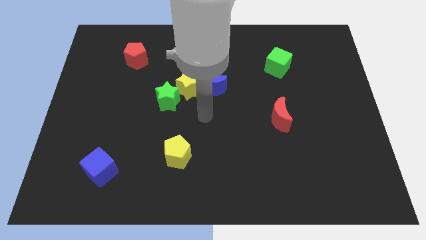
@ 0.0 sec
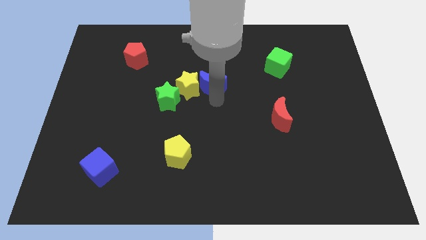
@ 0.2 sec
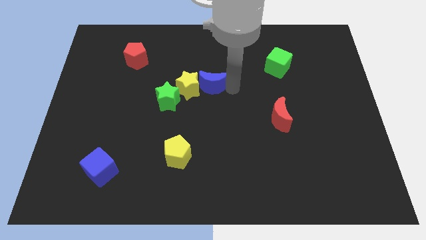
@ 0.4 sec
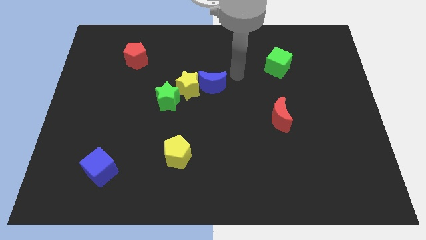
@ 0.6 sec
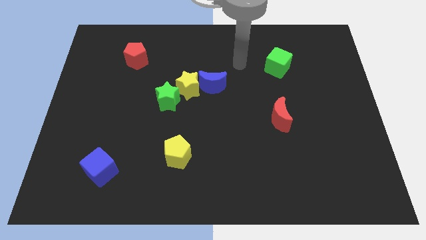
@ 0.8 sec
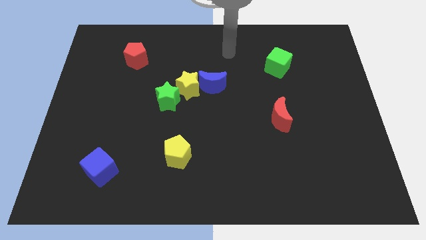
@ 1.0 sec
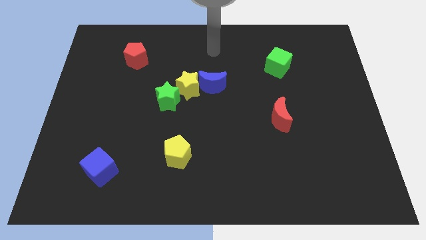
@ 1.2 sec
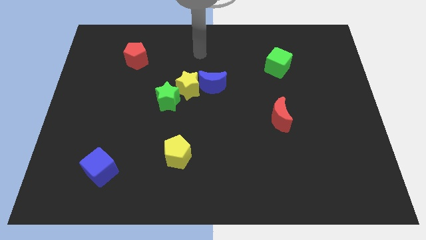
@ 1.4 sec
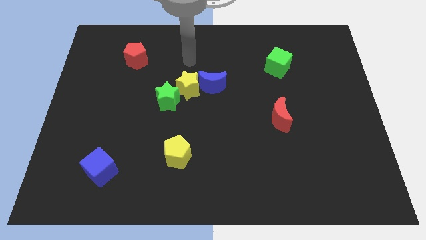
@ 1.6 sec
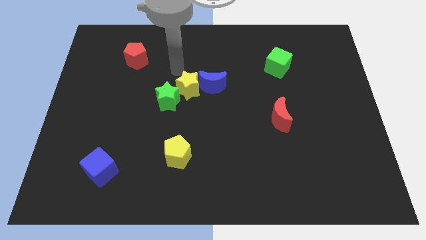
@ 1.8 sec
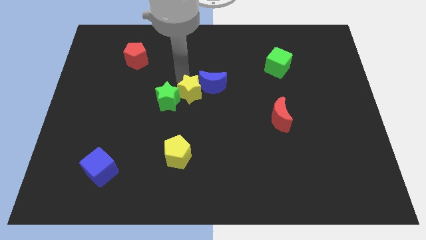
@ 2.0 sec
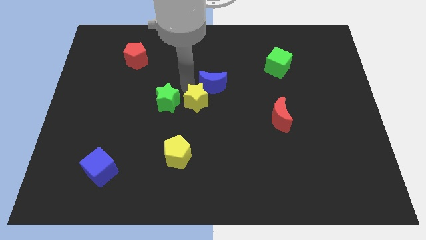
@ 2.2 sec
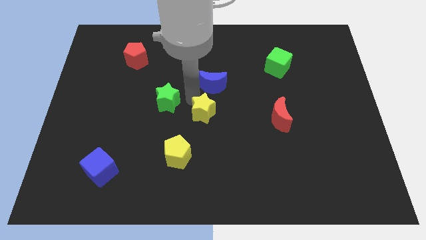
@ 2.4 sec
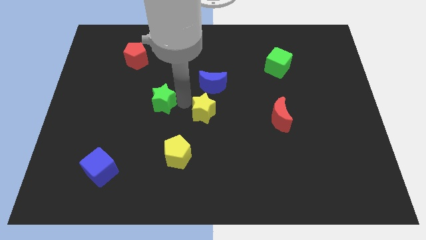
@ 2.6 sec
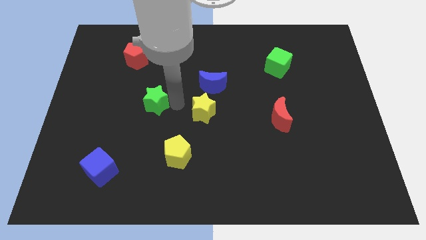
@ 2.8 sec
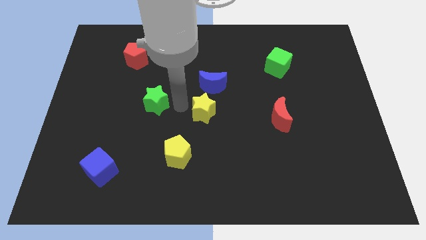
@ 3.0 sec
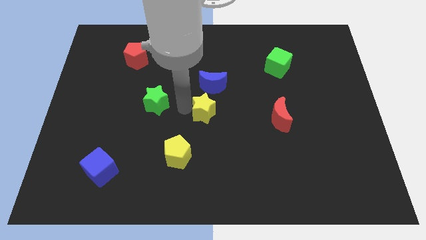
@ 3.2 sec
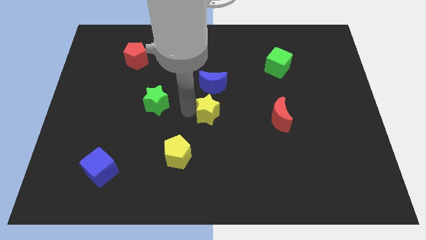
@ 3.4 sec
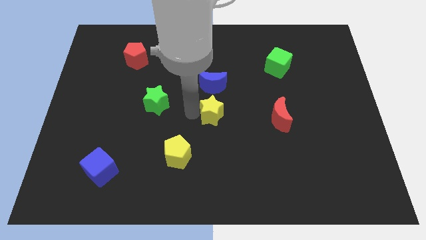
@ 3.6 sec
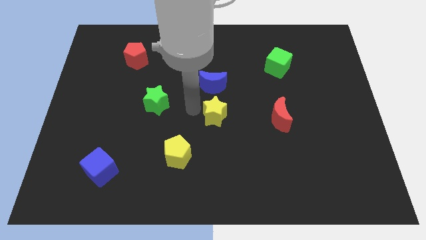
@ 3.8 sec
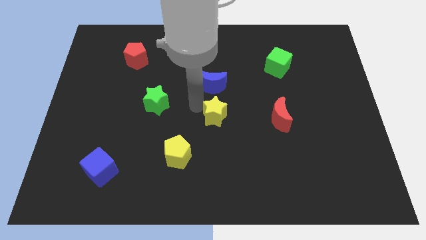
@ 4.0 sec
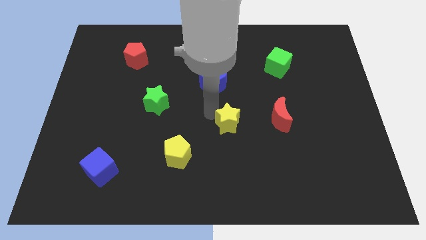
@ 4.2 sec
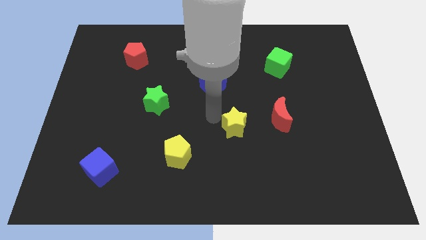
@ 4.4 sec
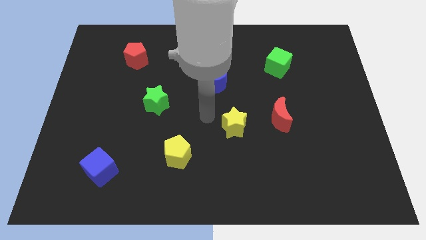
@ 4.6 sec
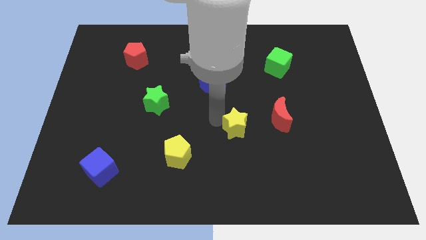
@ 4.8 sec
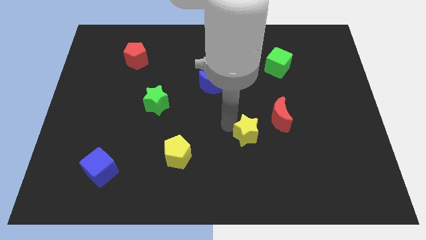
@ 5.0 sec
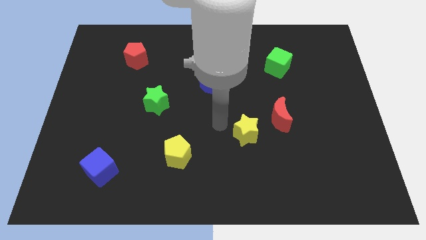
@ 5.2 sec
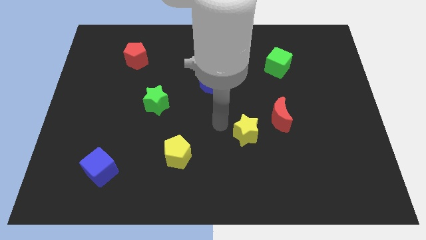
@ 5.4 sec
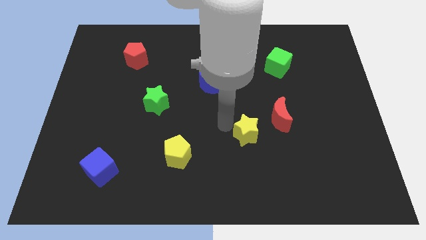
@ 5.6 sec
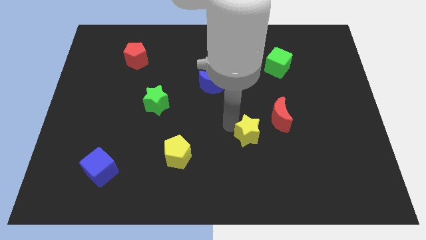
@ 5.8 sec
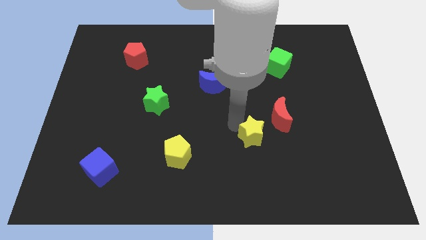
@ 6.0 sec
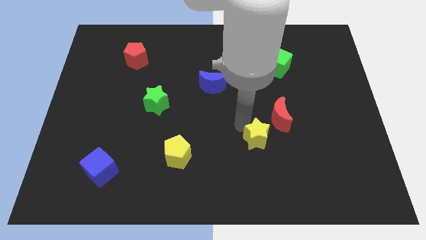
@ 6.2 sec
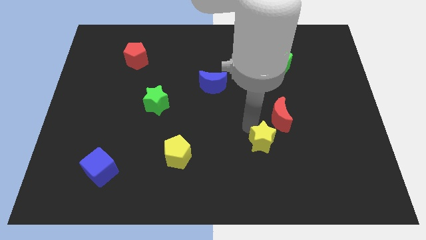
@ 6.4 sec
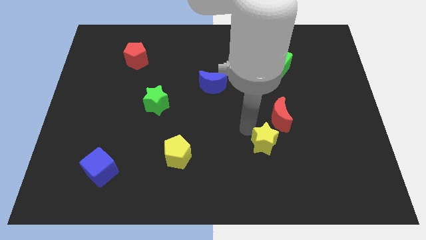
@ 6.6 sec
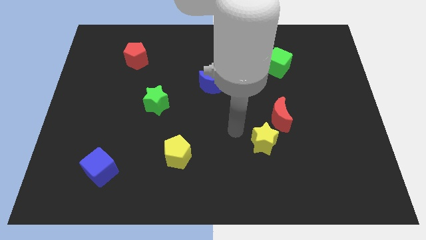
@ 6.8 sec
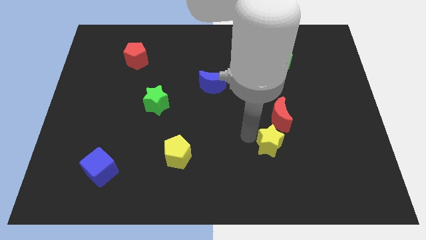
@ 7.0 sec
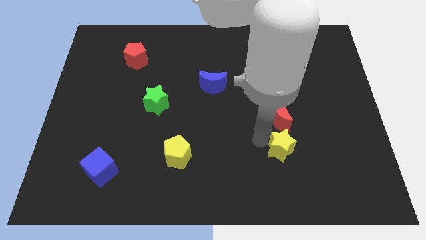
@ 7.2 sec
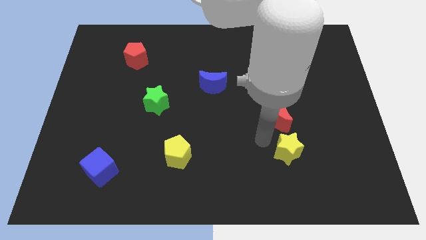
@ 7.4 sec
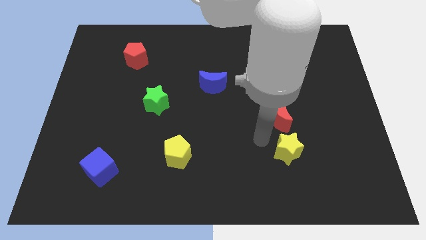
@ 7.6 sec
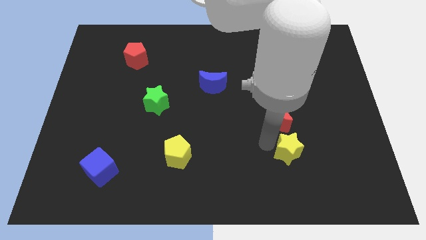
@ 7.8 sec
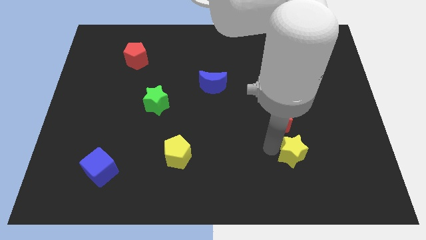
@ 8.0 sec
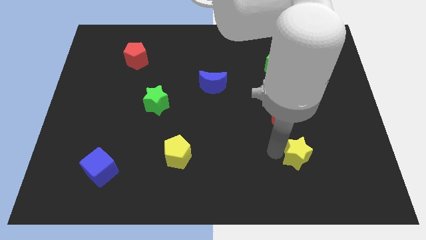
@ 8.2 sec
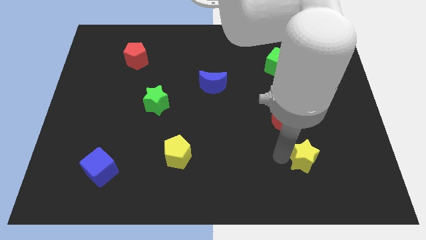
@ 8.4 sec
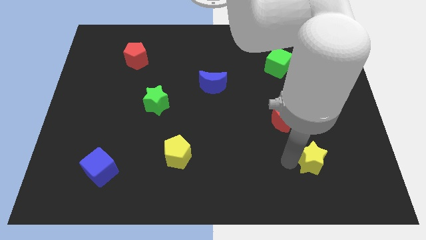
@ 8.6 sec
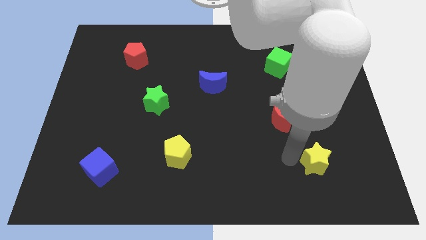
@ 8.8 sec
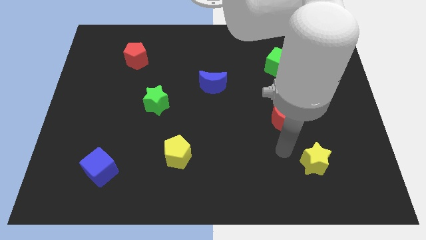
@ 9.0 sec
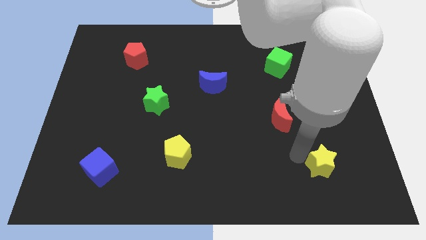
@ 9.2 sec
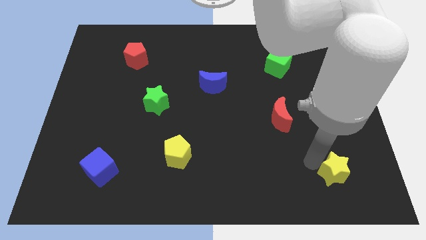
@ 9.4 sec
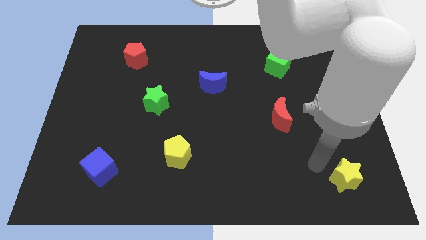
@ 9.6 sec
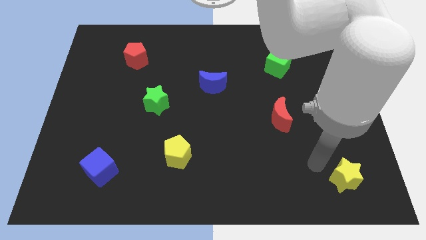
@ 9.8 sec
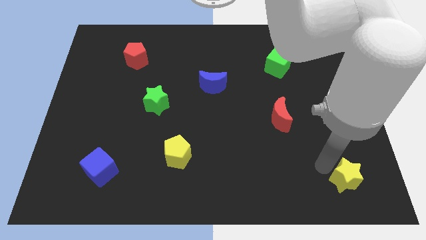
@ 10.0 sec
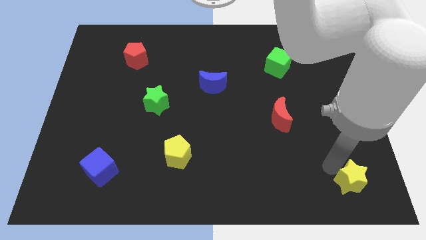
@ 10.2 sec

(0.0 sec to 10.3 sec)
move the yellow star to the bottom right

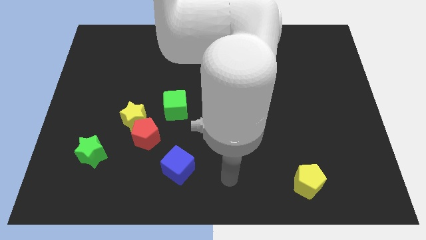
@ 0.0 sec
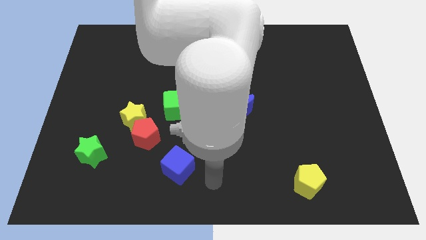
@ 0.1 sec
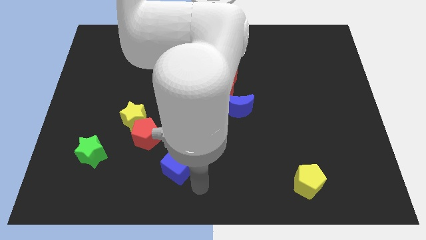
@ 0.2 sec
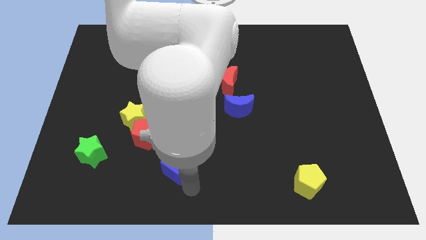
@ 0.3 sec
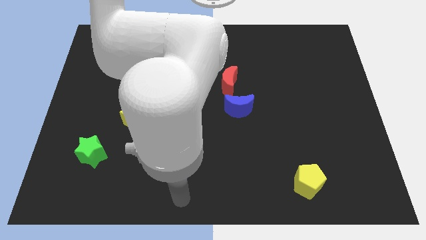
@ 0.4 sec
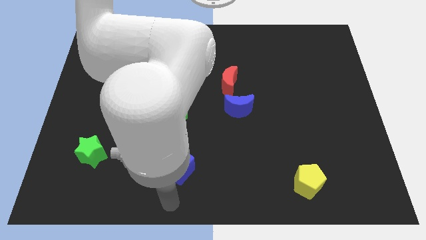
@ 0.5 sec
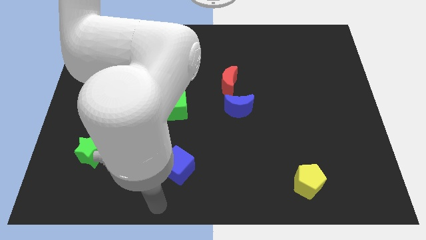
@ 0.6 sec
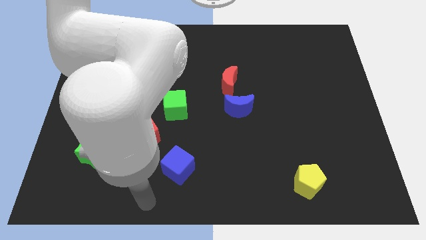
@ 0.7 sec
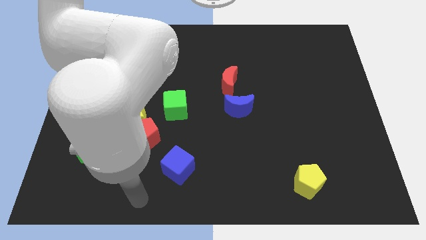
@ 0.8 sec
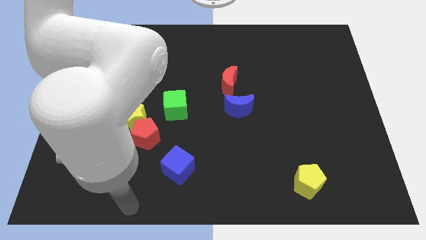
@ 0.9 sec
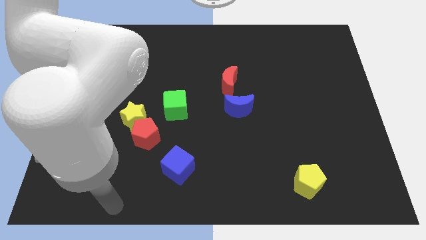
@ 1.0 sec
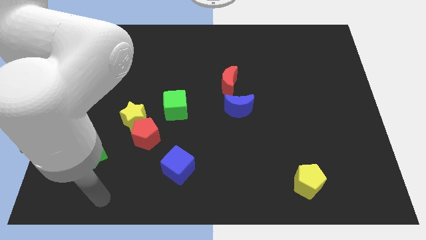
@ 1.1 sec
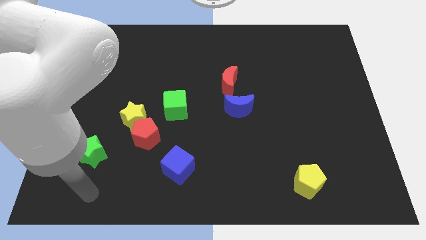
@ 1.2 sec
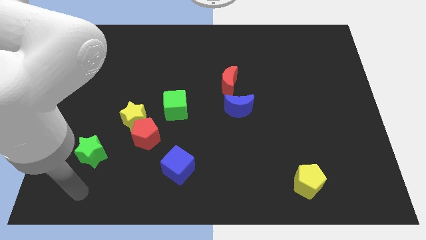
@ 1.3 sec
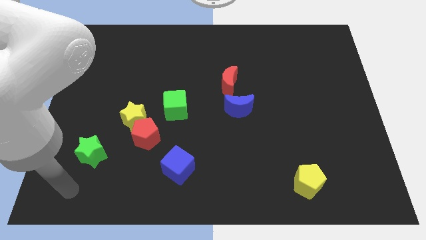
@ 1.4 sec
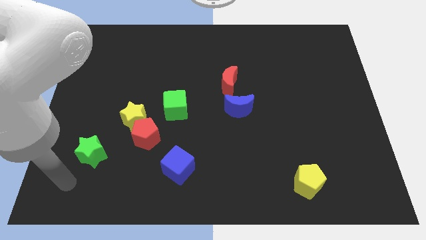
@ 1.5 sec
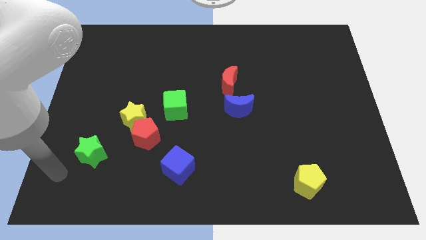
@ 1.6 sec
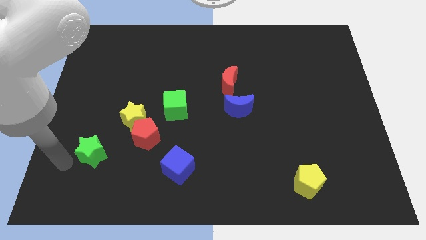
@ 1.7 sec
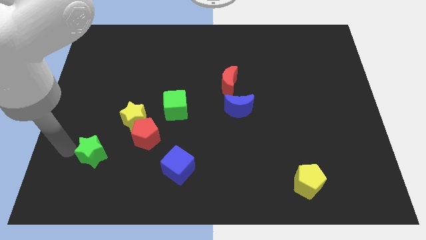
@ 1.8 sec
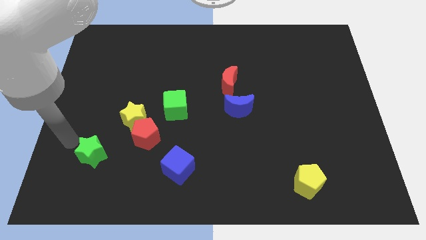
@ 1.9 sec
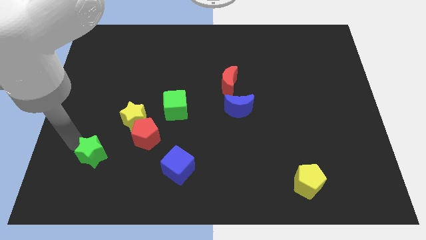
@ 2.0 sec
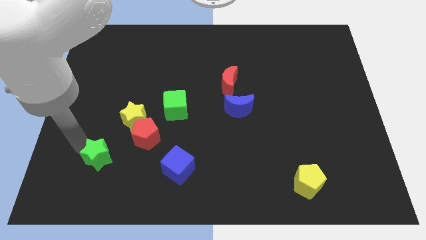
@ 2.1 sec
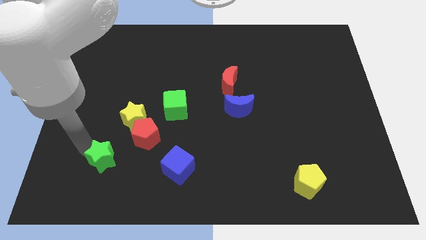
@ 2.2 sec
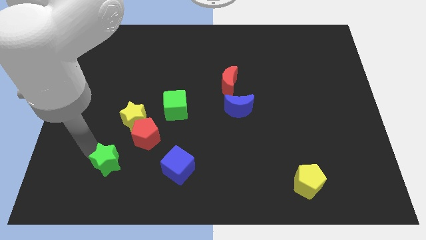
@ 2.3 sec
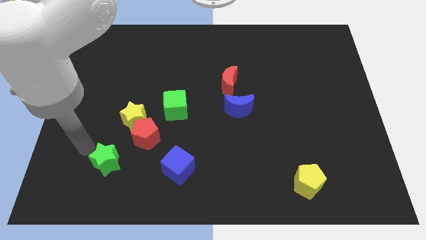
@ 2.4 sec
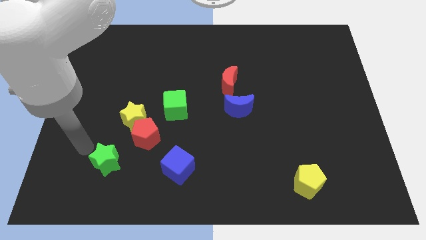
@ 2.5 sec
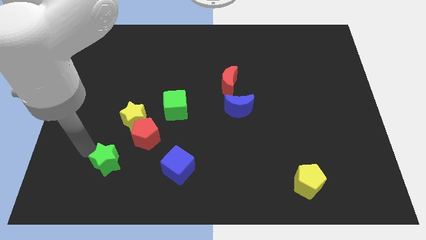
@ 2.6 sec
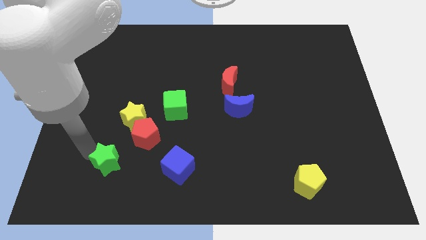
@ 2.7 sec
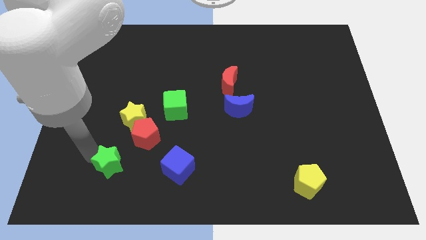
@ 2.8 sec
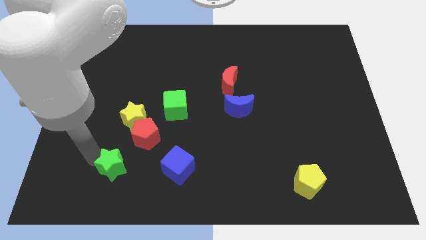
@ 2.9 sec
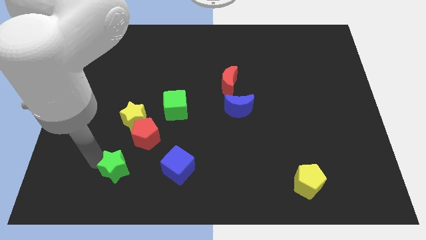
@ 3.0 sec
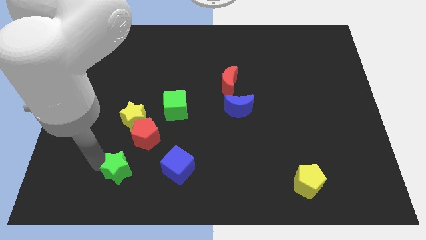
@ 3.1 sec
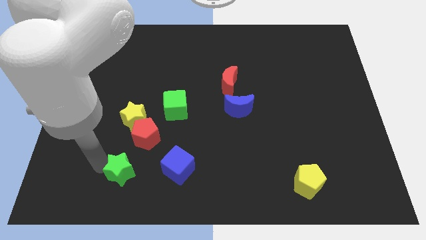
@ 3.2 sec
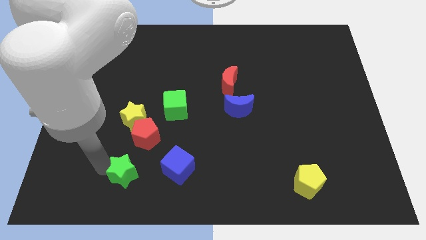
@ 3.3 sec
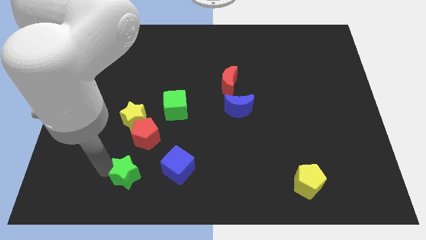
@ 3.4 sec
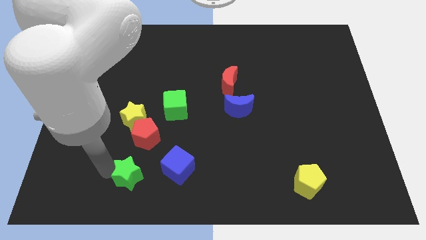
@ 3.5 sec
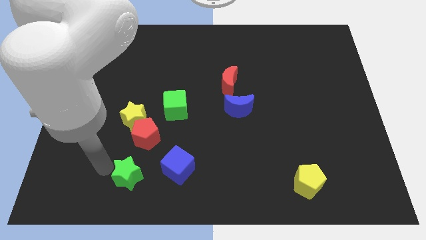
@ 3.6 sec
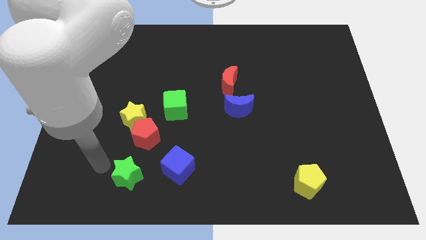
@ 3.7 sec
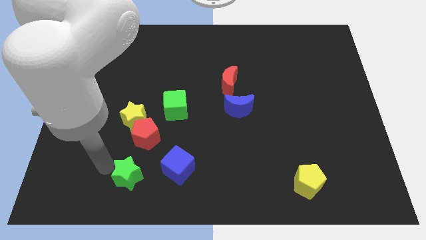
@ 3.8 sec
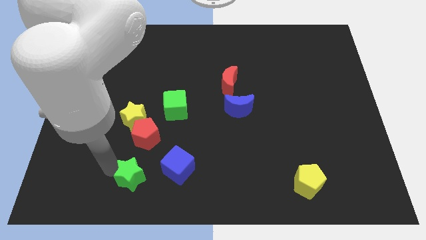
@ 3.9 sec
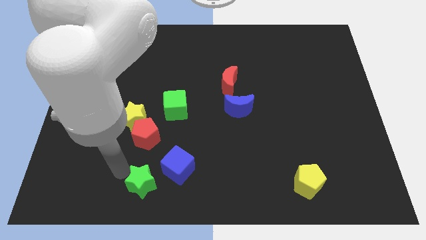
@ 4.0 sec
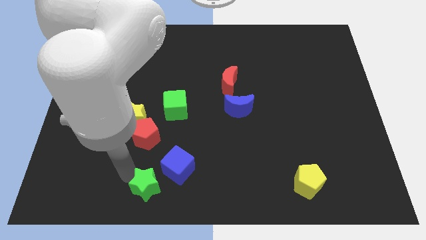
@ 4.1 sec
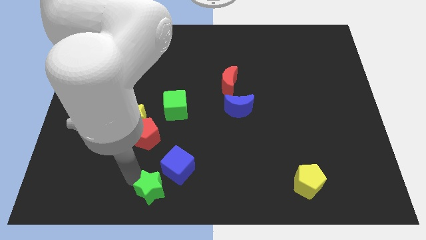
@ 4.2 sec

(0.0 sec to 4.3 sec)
push the green star to the bottom side
